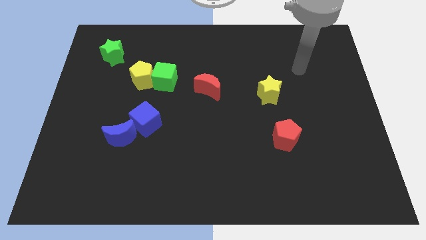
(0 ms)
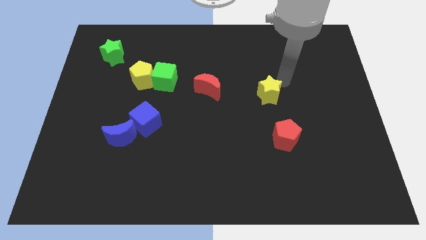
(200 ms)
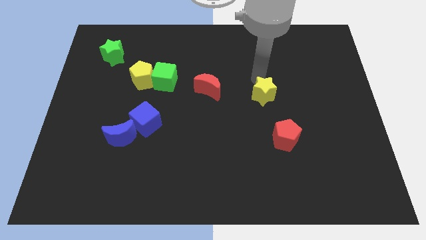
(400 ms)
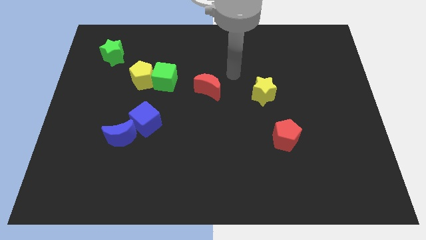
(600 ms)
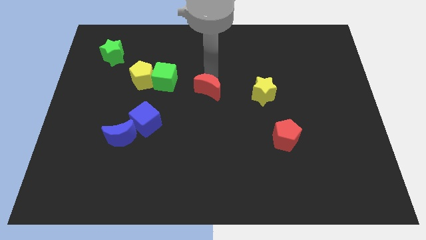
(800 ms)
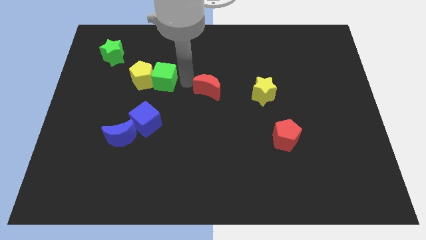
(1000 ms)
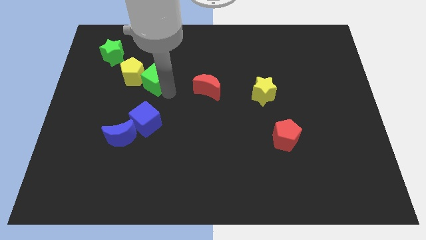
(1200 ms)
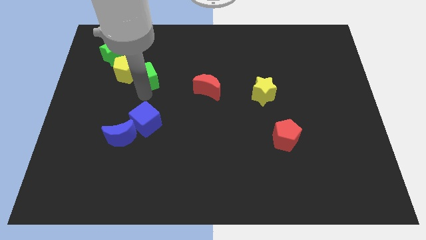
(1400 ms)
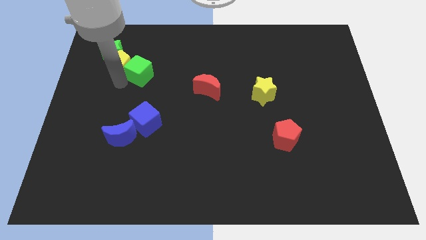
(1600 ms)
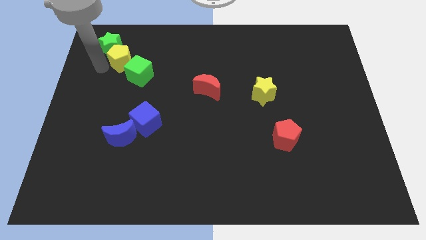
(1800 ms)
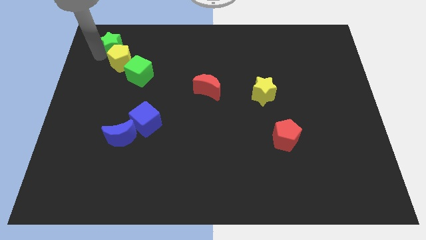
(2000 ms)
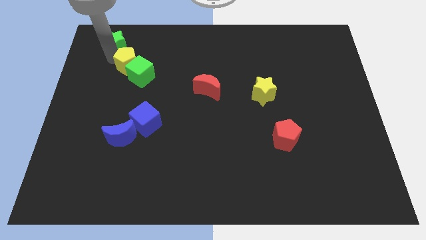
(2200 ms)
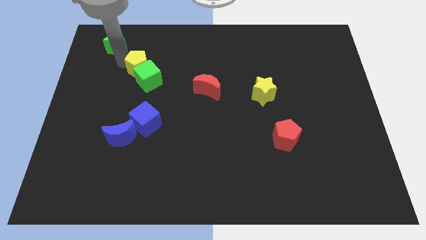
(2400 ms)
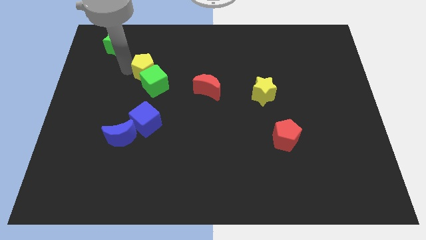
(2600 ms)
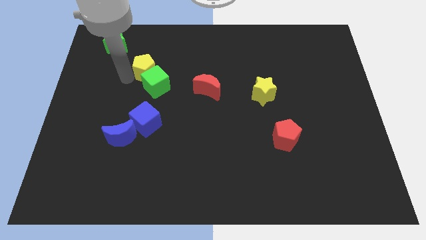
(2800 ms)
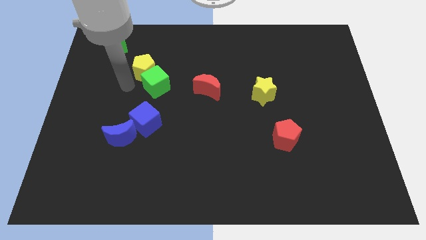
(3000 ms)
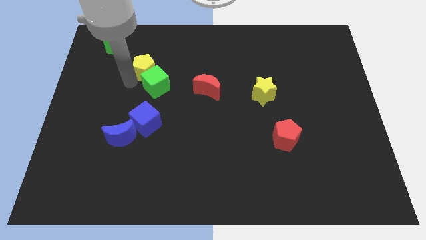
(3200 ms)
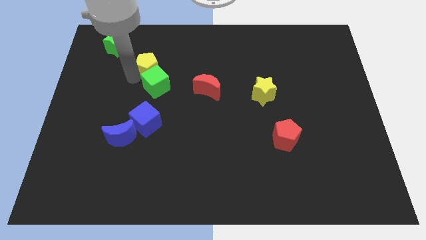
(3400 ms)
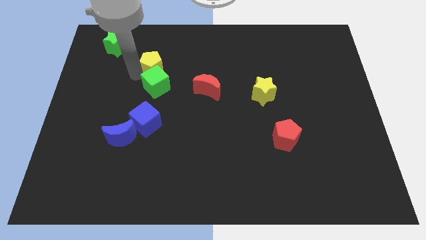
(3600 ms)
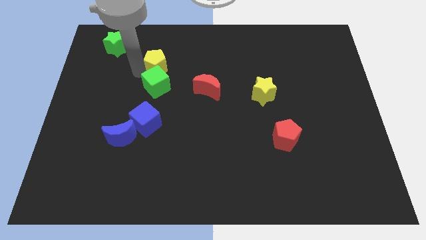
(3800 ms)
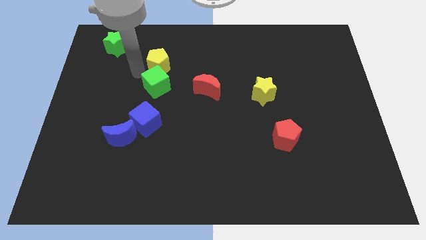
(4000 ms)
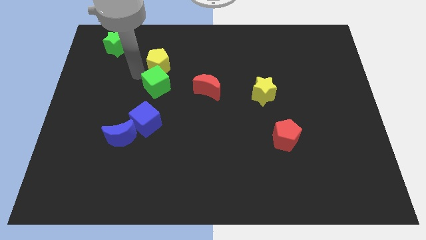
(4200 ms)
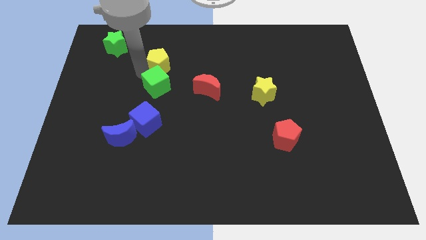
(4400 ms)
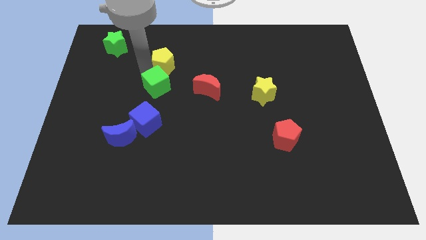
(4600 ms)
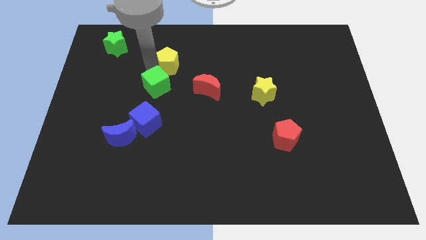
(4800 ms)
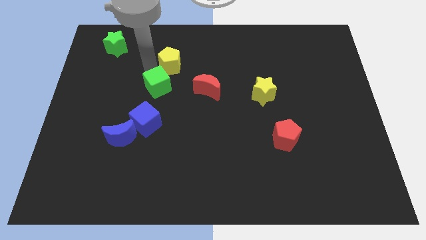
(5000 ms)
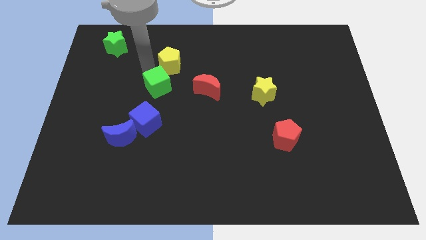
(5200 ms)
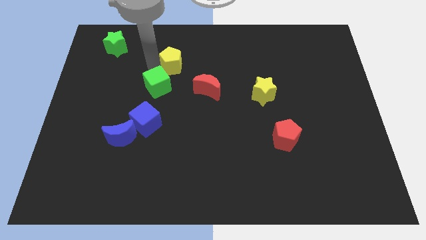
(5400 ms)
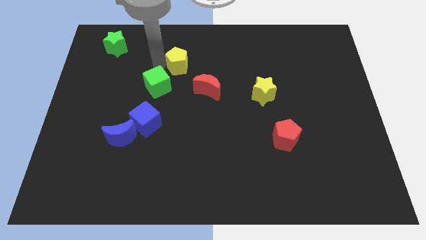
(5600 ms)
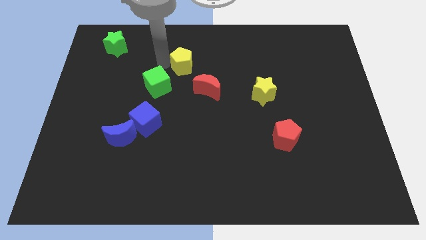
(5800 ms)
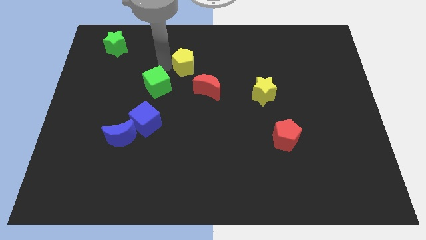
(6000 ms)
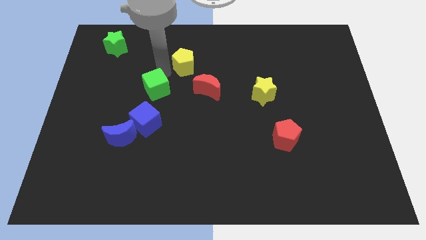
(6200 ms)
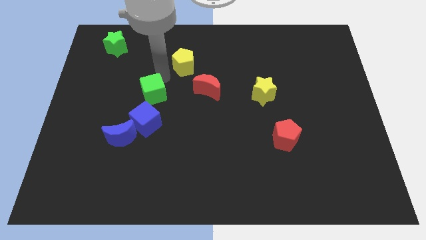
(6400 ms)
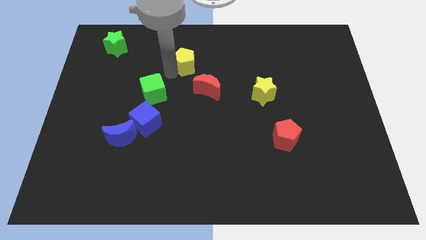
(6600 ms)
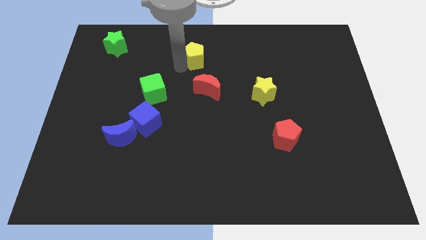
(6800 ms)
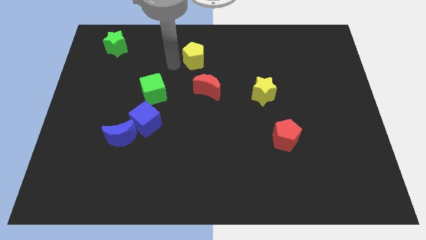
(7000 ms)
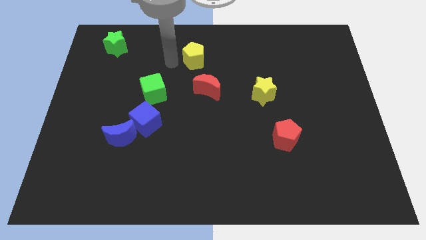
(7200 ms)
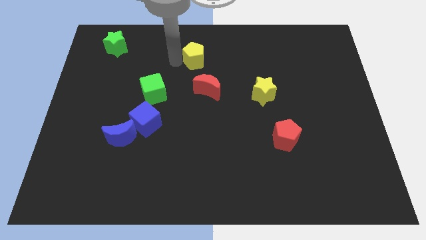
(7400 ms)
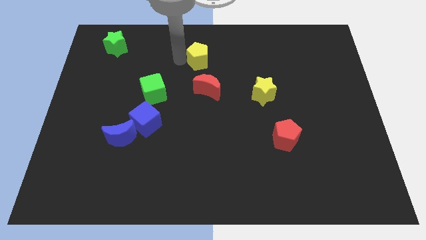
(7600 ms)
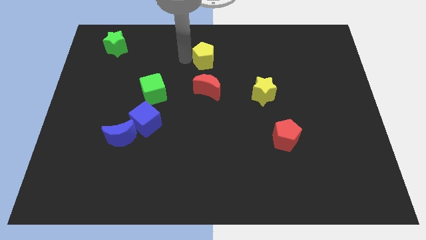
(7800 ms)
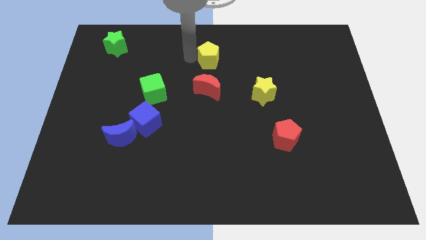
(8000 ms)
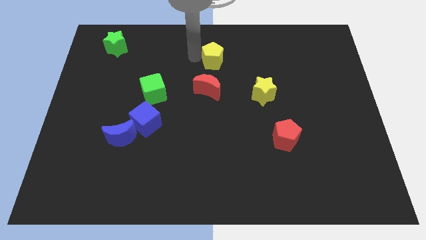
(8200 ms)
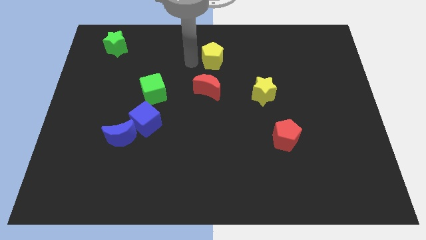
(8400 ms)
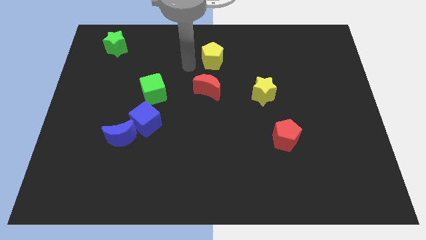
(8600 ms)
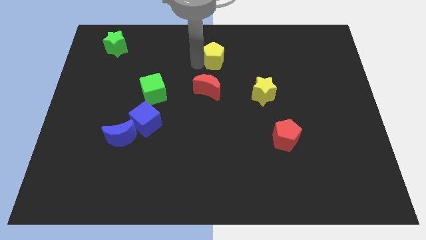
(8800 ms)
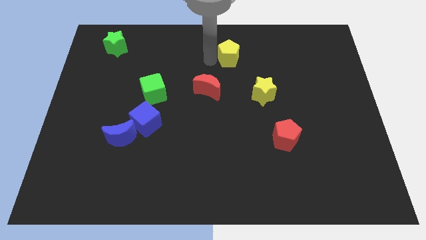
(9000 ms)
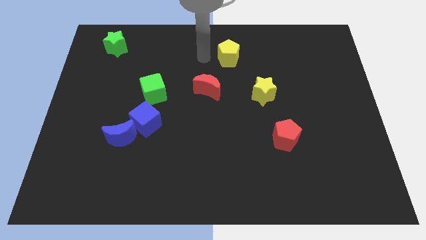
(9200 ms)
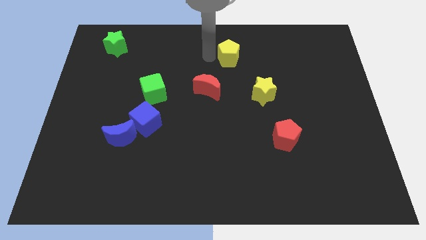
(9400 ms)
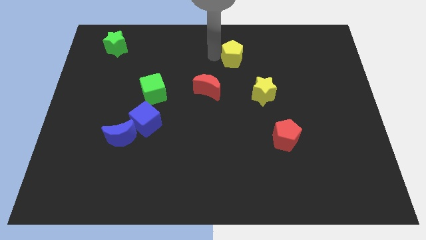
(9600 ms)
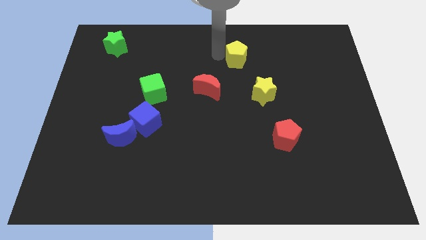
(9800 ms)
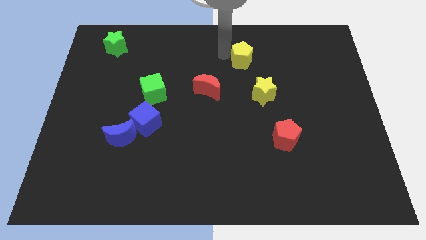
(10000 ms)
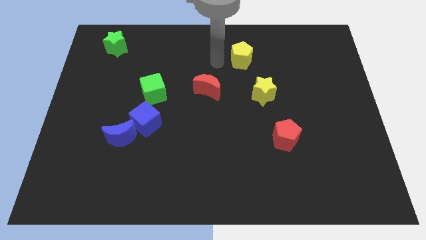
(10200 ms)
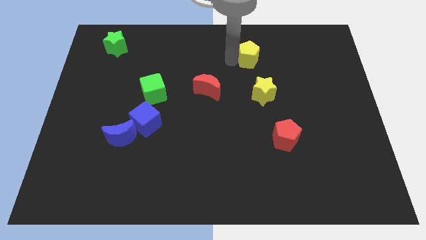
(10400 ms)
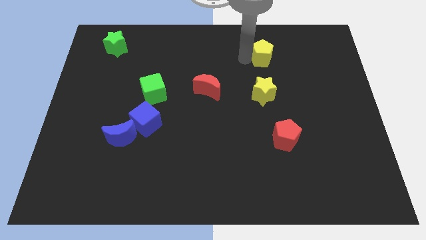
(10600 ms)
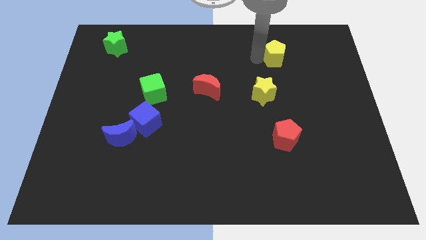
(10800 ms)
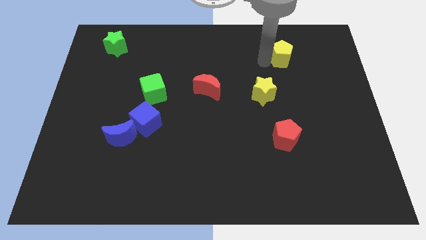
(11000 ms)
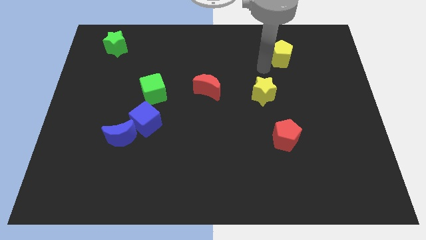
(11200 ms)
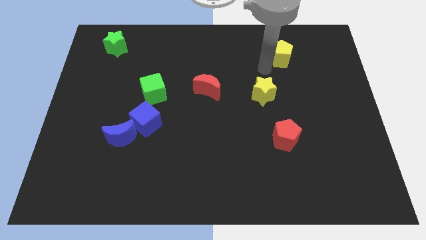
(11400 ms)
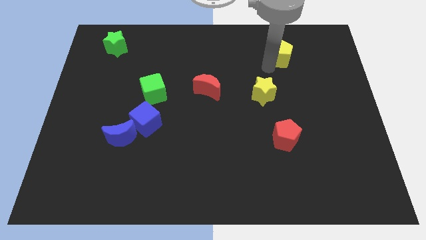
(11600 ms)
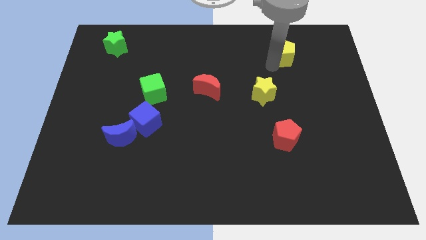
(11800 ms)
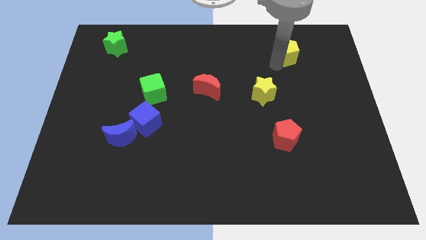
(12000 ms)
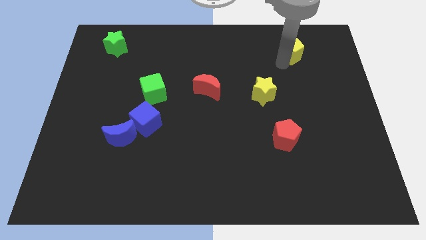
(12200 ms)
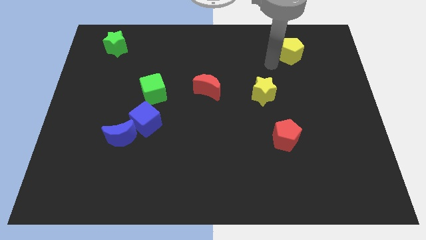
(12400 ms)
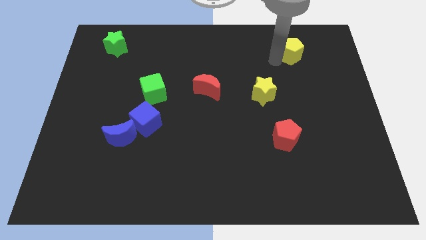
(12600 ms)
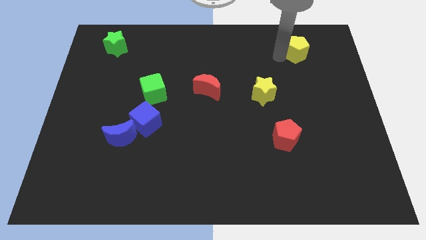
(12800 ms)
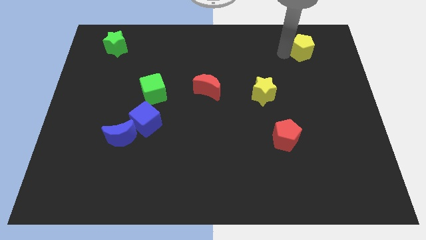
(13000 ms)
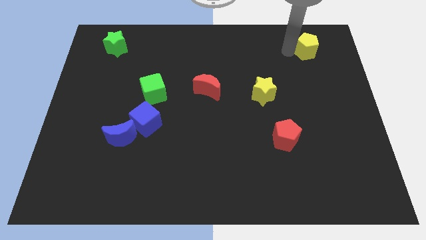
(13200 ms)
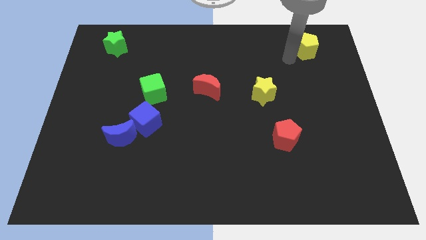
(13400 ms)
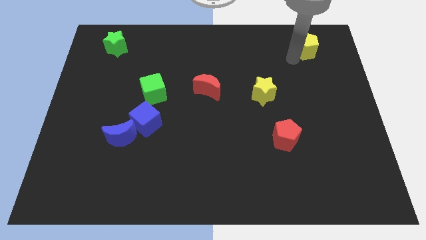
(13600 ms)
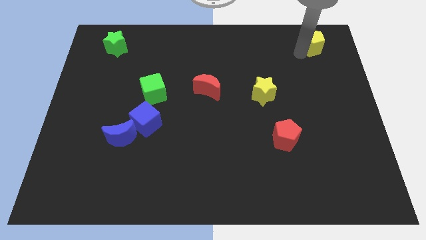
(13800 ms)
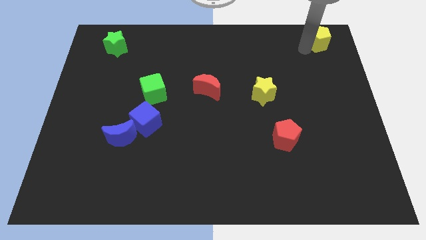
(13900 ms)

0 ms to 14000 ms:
put the yellow pentagon to the top right corner
